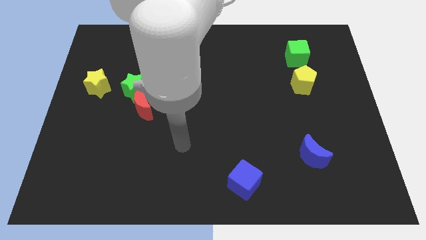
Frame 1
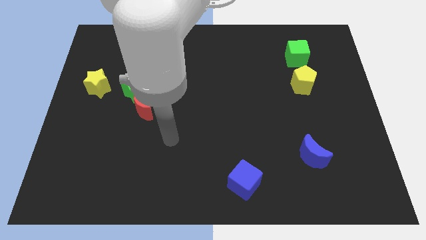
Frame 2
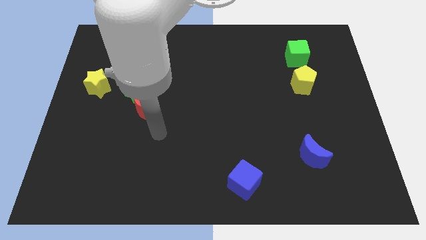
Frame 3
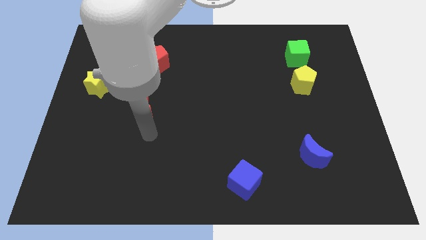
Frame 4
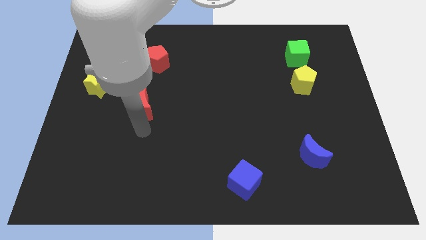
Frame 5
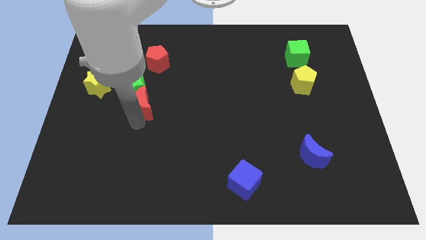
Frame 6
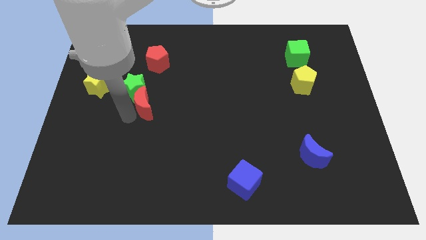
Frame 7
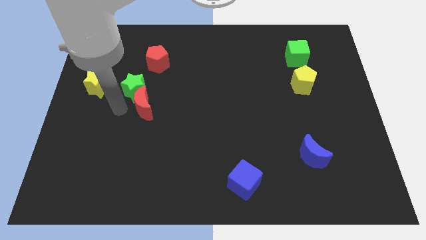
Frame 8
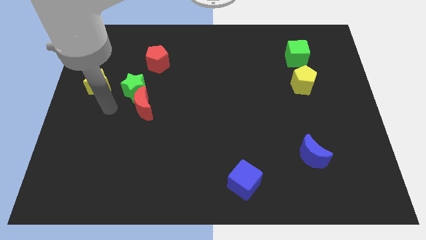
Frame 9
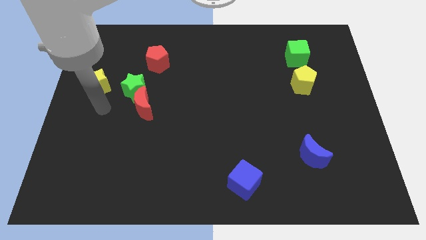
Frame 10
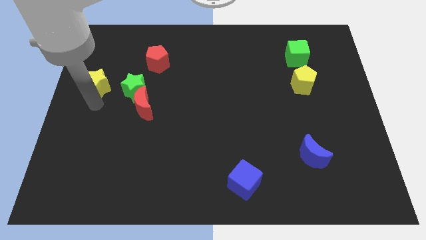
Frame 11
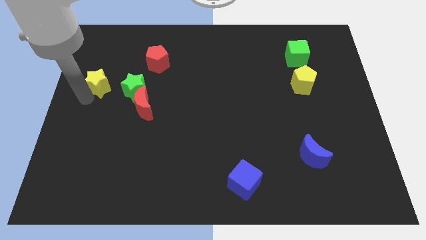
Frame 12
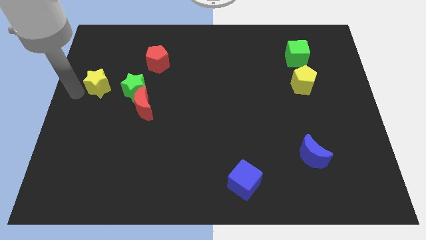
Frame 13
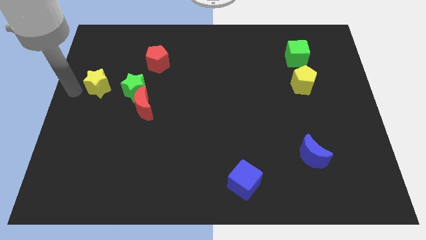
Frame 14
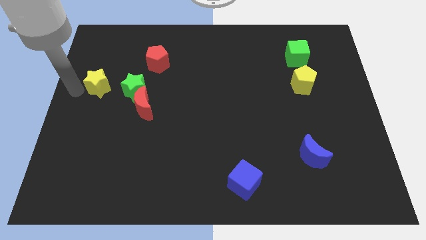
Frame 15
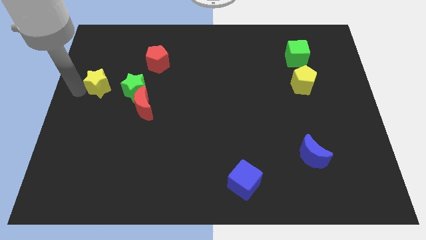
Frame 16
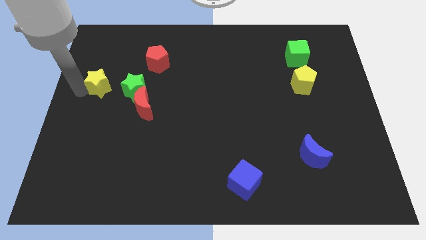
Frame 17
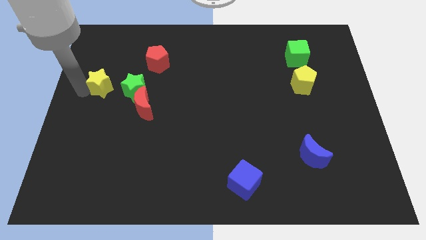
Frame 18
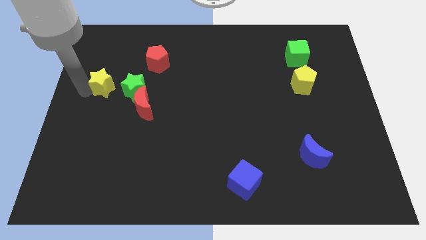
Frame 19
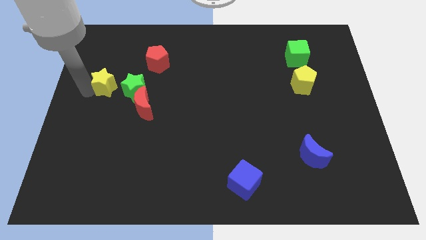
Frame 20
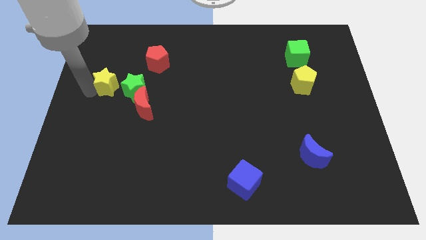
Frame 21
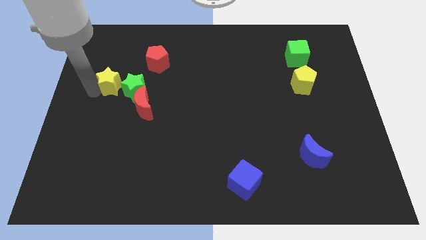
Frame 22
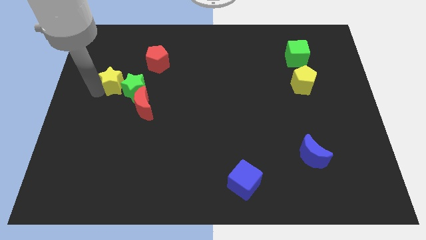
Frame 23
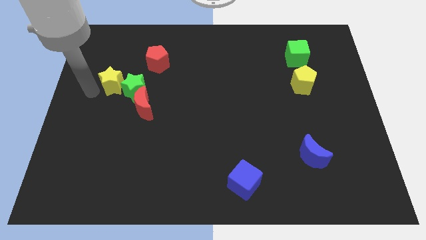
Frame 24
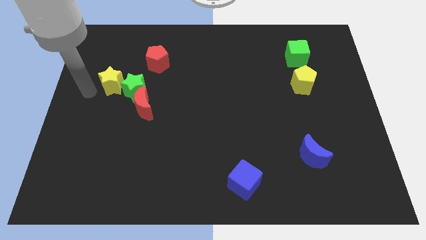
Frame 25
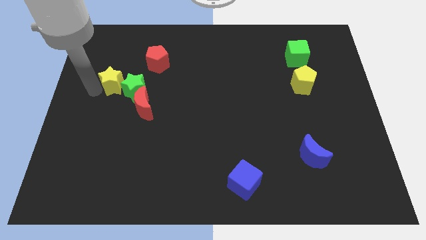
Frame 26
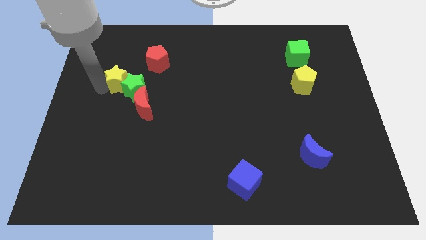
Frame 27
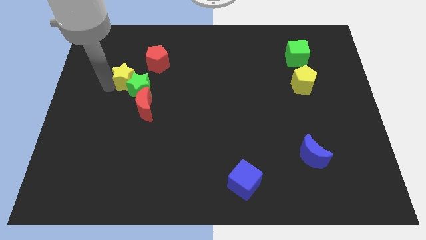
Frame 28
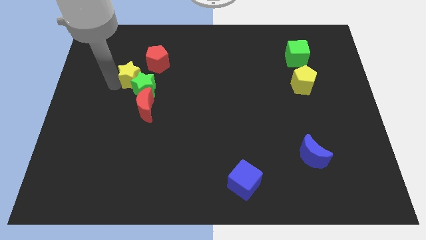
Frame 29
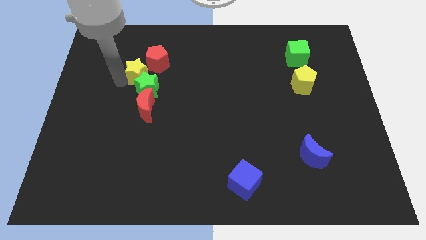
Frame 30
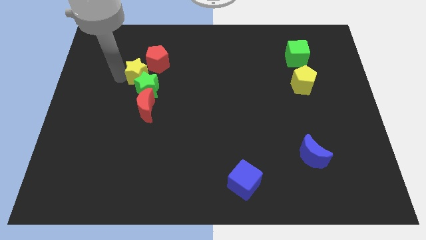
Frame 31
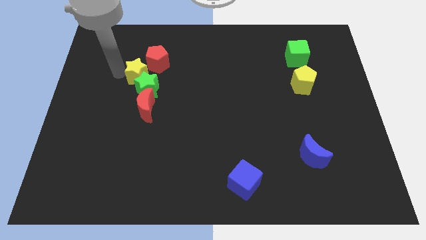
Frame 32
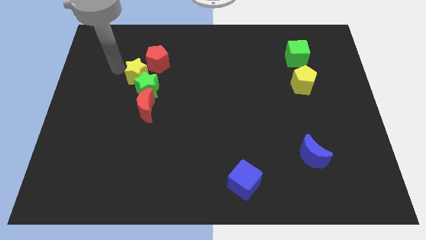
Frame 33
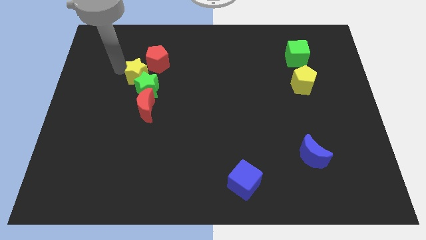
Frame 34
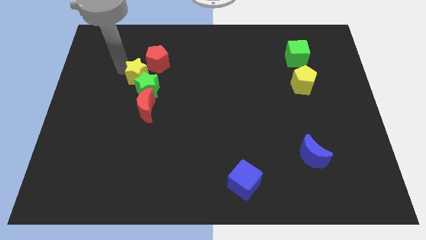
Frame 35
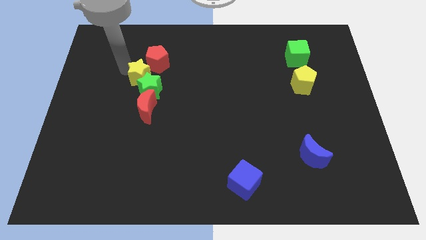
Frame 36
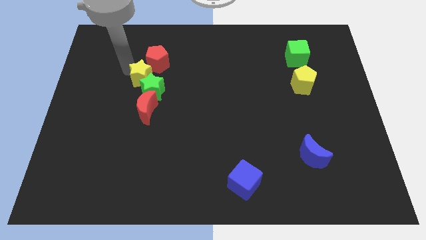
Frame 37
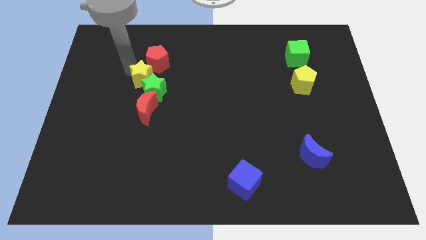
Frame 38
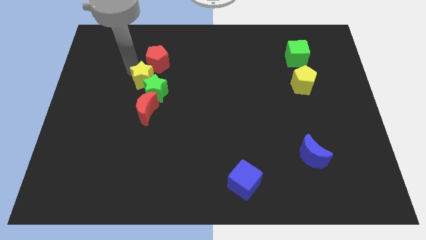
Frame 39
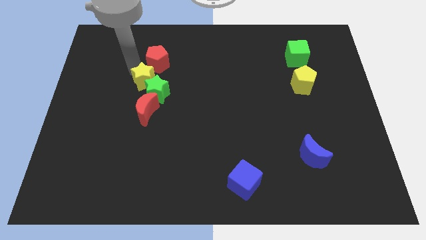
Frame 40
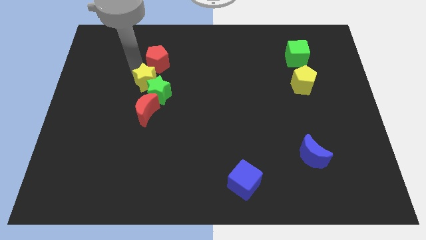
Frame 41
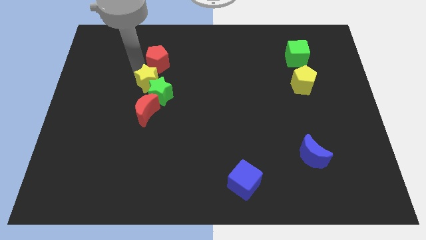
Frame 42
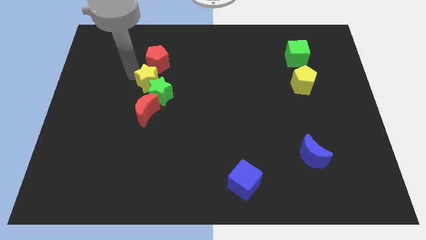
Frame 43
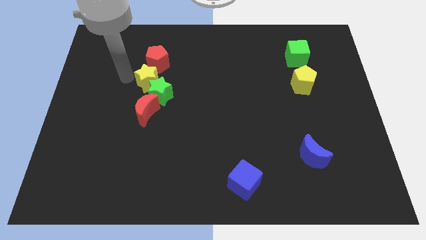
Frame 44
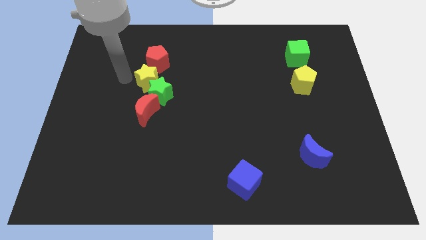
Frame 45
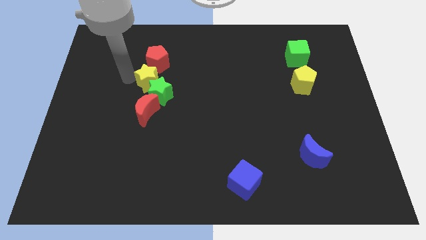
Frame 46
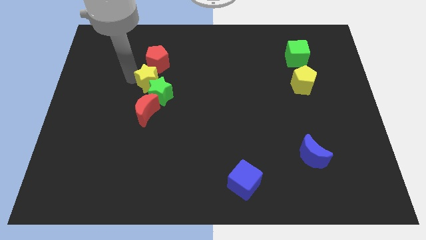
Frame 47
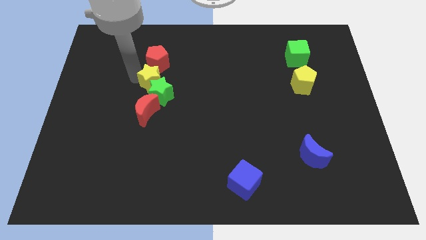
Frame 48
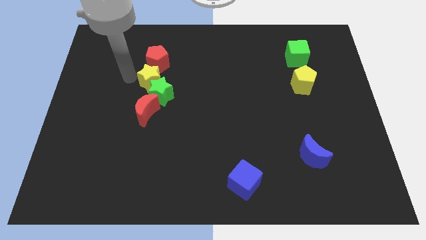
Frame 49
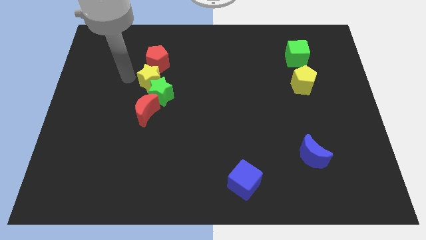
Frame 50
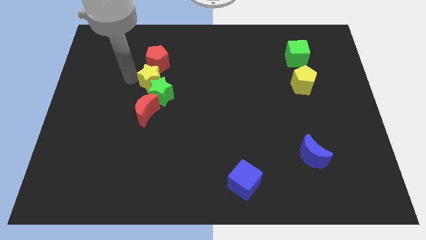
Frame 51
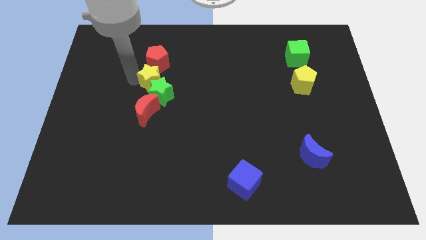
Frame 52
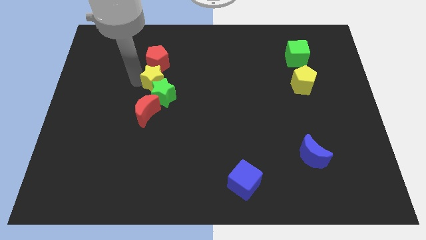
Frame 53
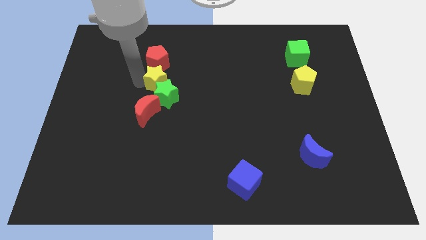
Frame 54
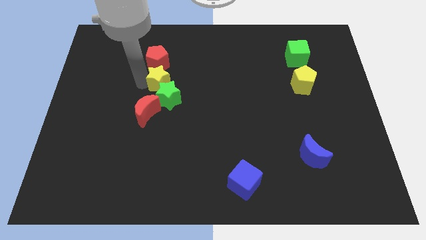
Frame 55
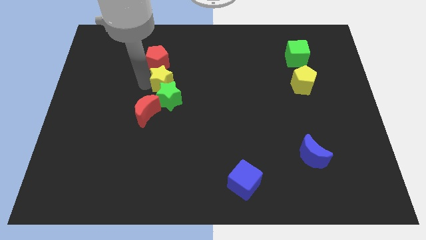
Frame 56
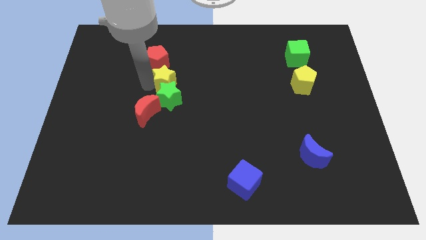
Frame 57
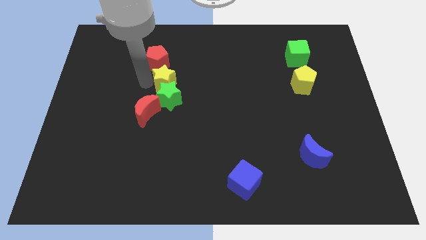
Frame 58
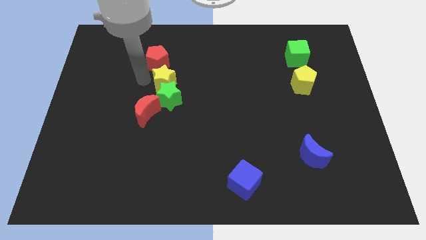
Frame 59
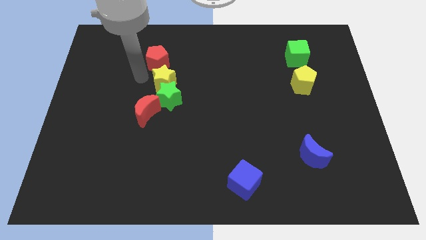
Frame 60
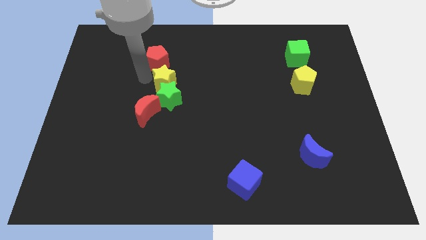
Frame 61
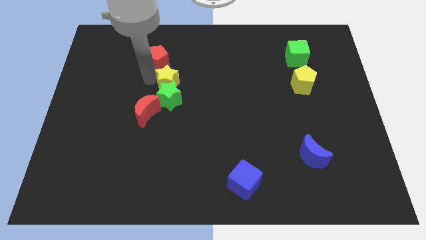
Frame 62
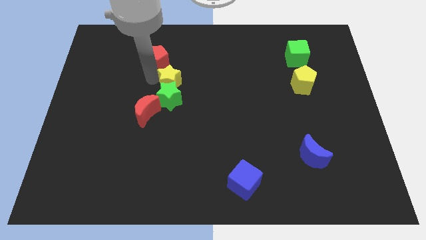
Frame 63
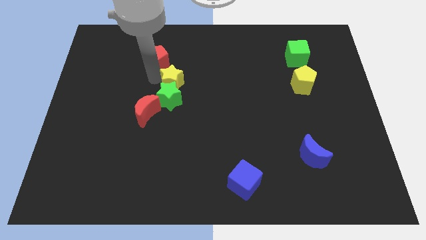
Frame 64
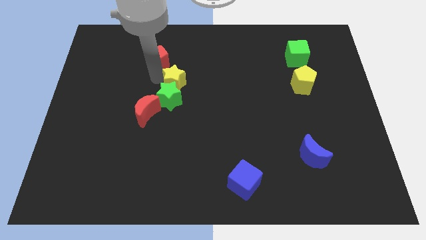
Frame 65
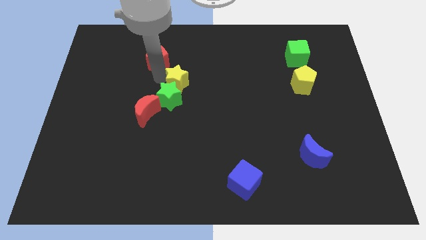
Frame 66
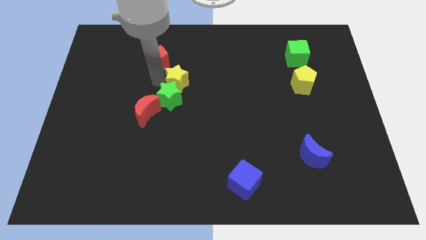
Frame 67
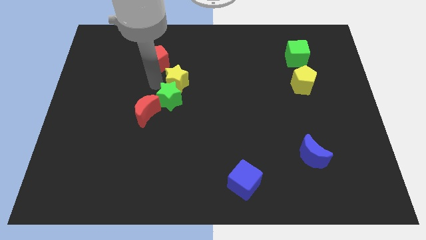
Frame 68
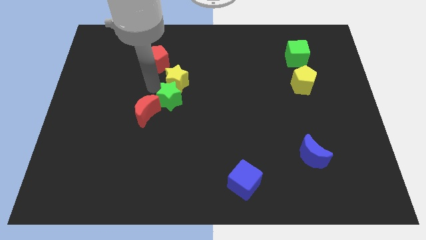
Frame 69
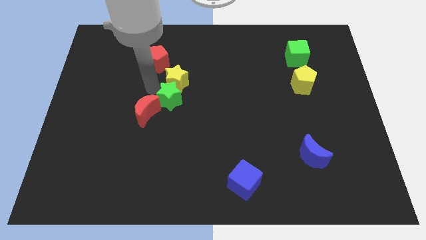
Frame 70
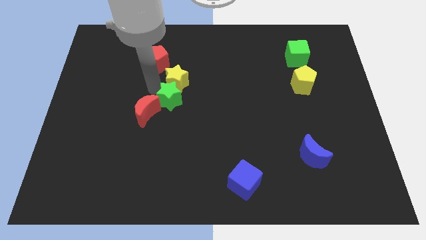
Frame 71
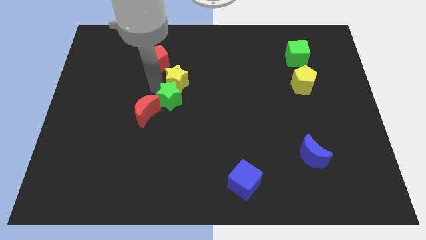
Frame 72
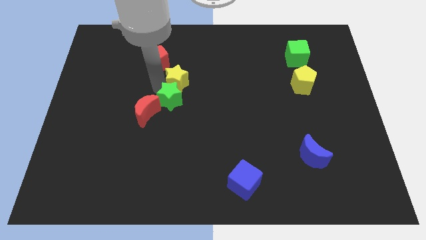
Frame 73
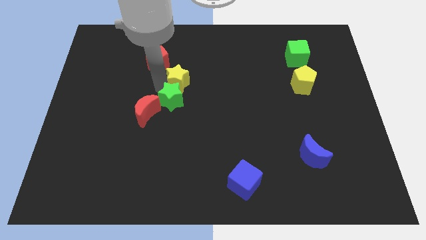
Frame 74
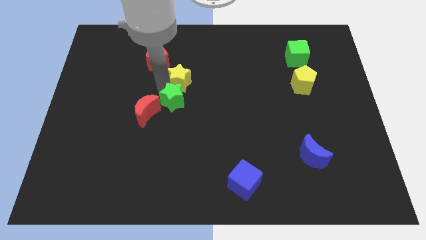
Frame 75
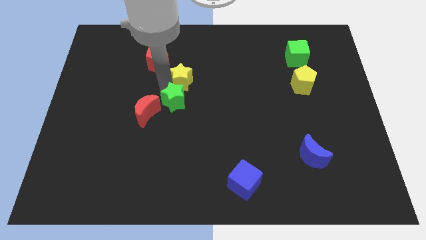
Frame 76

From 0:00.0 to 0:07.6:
move the yellow star to the right

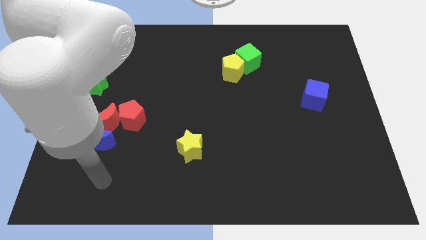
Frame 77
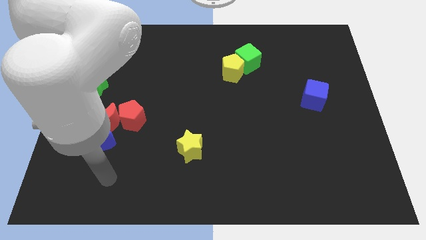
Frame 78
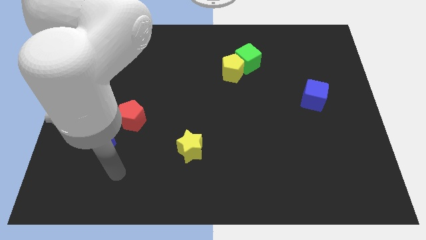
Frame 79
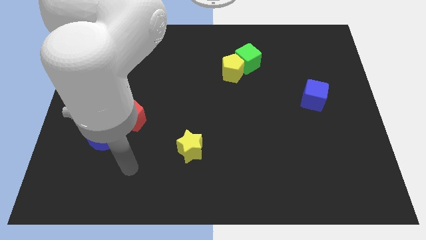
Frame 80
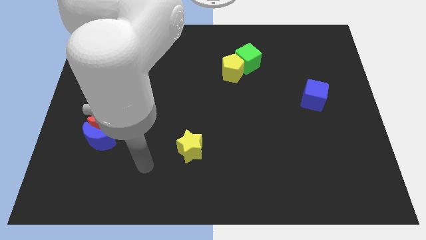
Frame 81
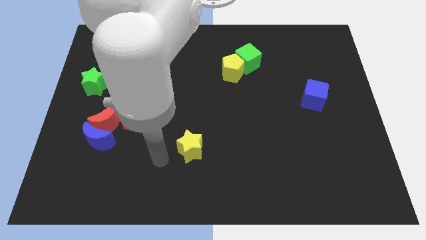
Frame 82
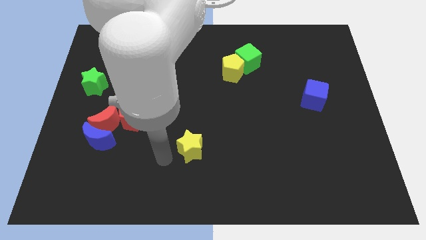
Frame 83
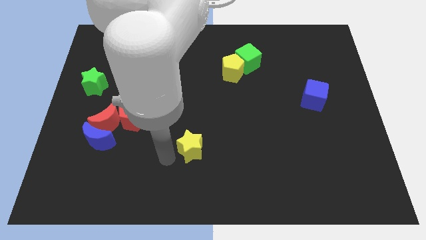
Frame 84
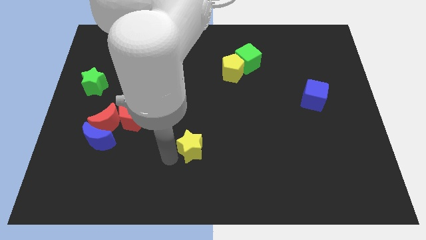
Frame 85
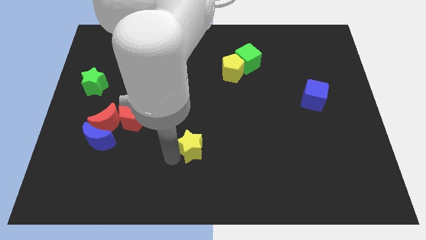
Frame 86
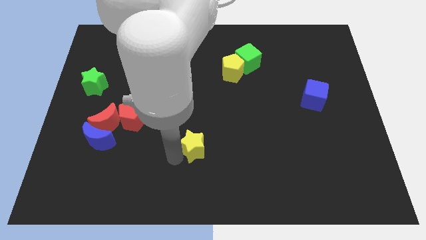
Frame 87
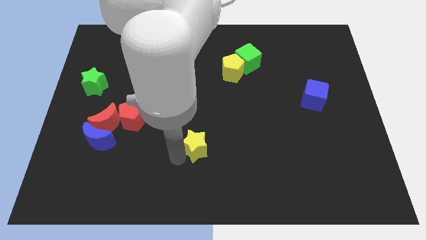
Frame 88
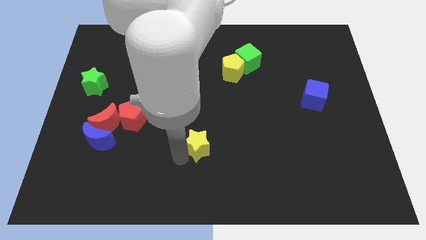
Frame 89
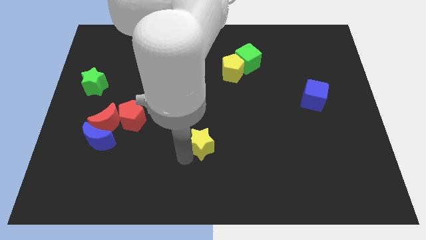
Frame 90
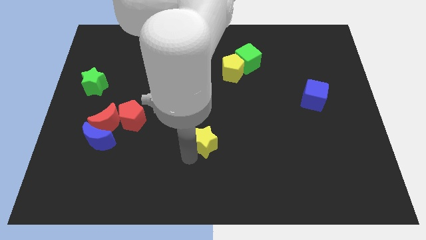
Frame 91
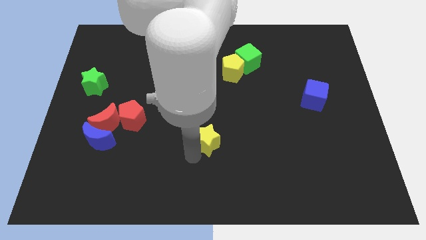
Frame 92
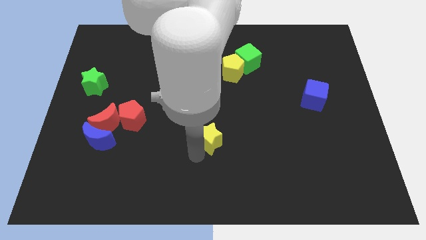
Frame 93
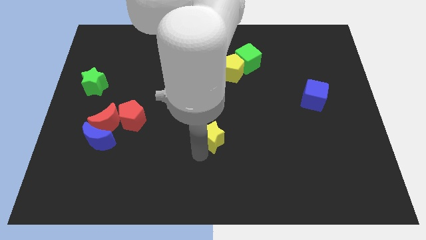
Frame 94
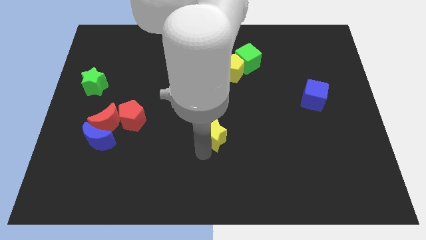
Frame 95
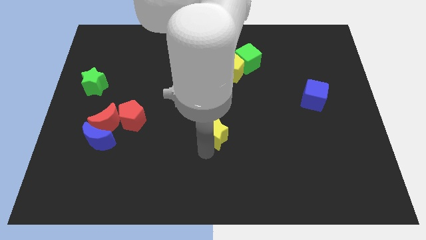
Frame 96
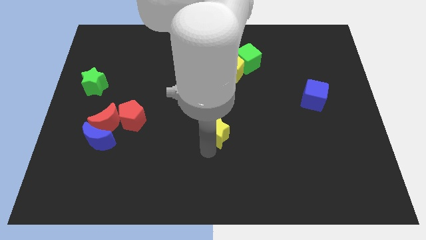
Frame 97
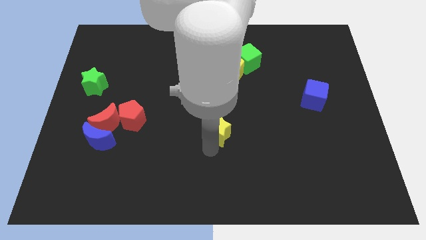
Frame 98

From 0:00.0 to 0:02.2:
move the yellow star somewhat upwards and then to the right
